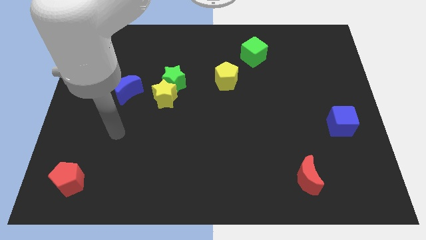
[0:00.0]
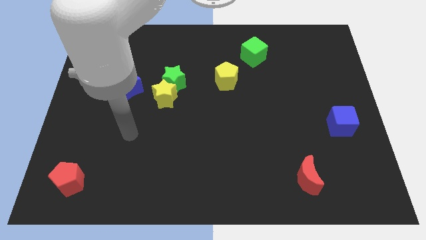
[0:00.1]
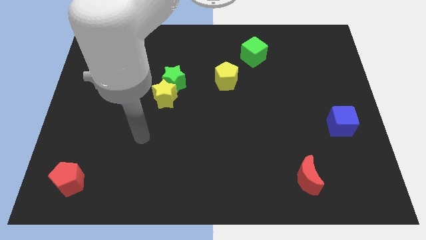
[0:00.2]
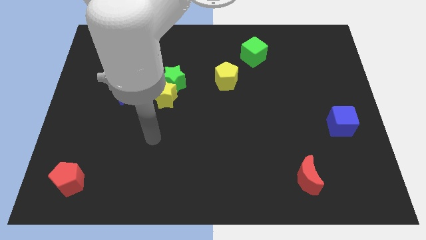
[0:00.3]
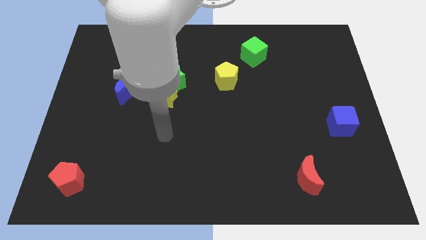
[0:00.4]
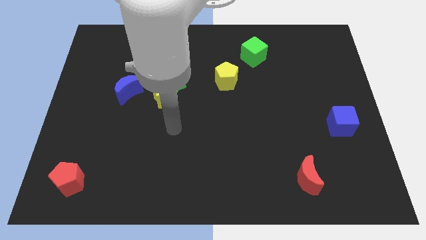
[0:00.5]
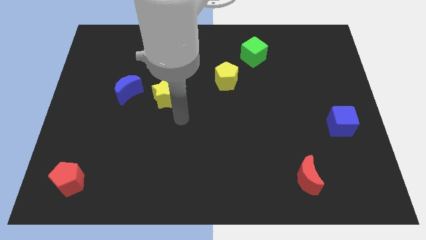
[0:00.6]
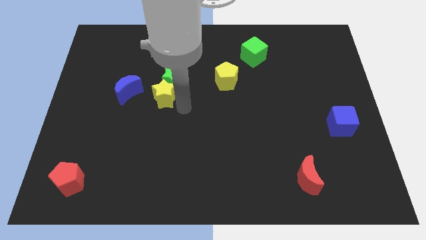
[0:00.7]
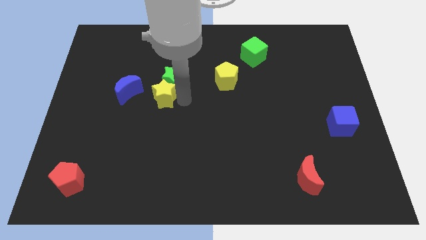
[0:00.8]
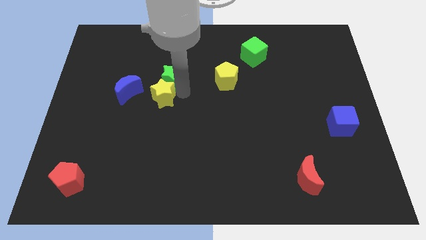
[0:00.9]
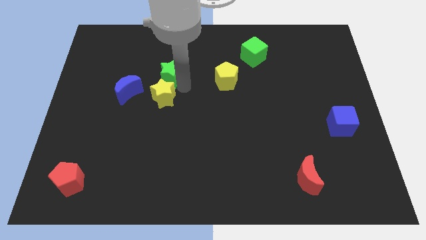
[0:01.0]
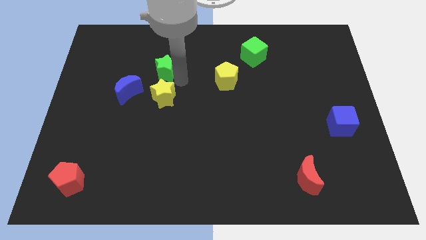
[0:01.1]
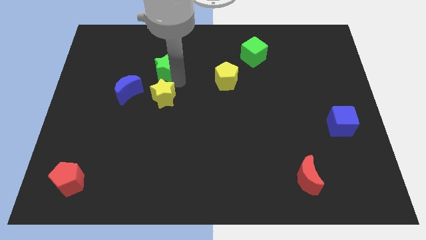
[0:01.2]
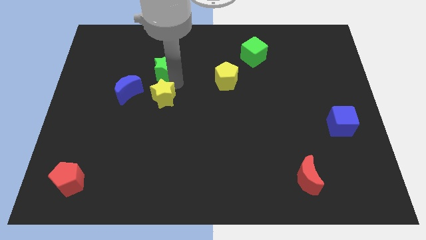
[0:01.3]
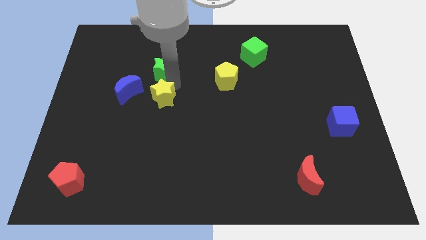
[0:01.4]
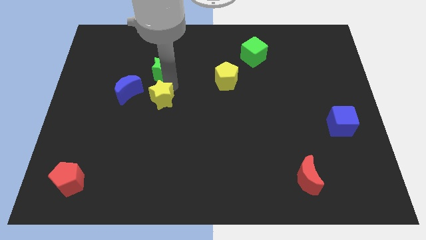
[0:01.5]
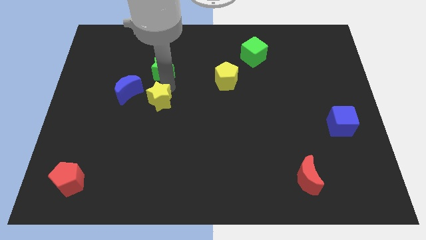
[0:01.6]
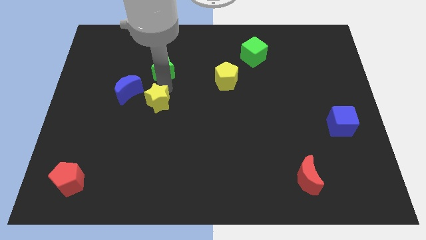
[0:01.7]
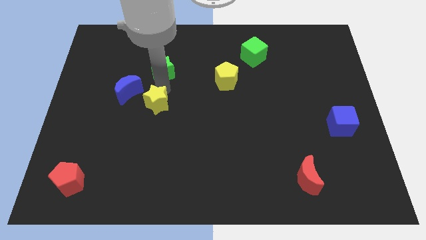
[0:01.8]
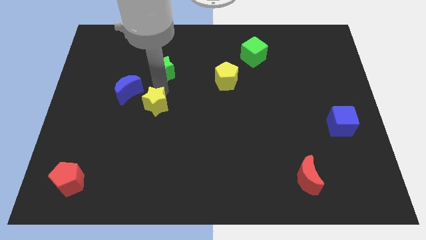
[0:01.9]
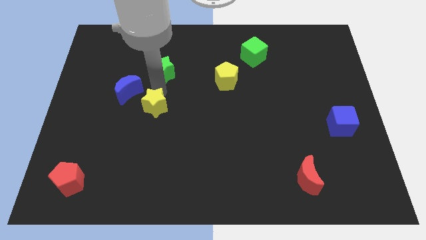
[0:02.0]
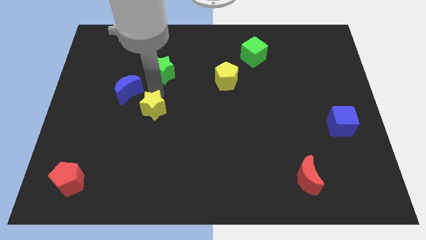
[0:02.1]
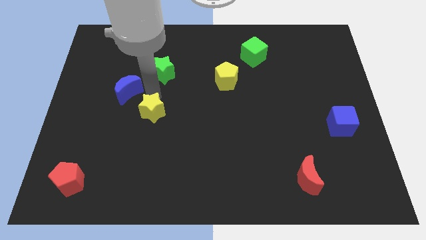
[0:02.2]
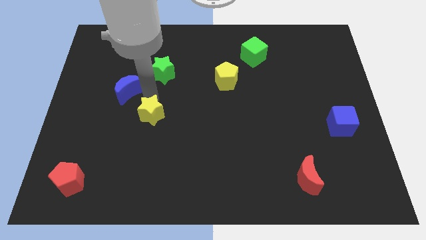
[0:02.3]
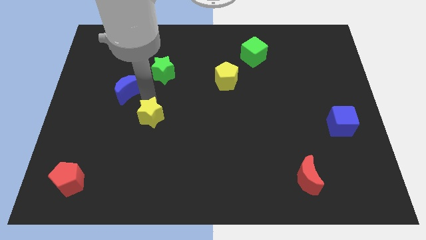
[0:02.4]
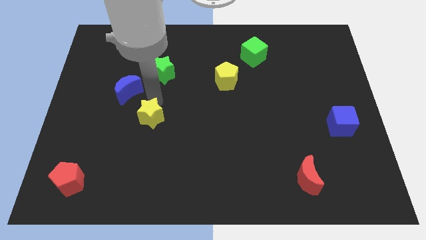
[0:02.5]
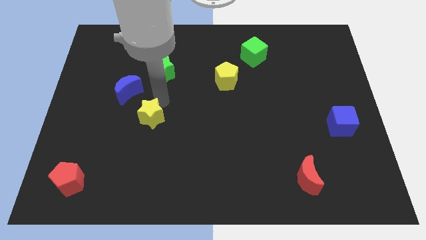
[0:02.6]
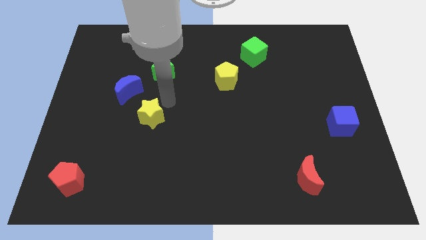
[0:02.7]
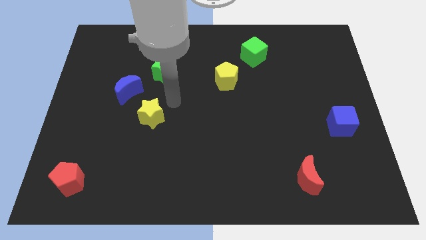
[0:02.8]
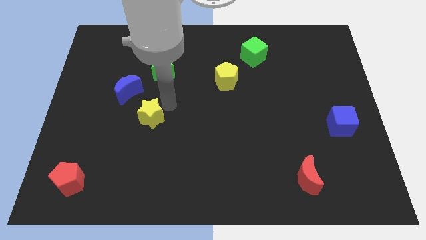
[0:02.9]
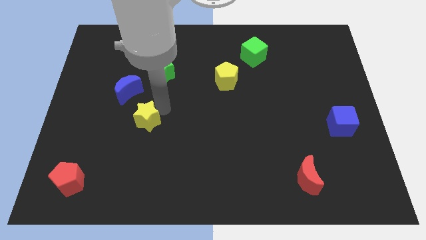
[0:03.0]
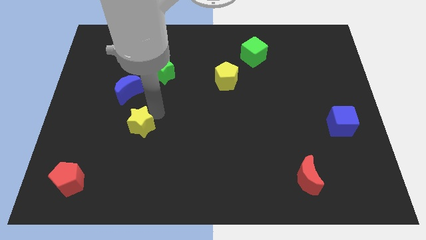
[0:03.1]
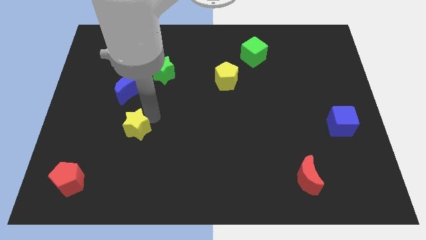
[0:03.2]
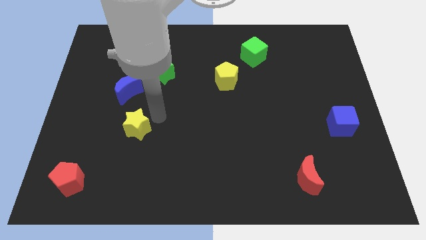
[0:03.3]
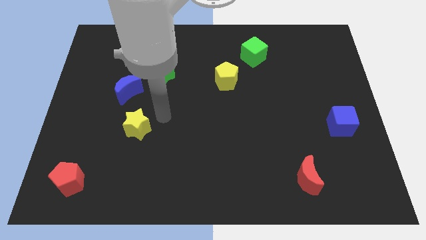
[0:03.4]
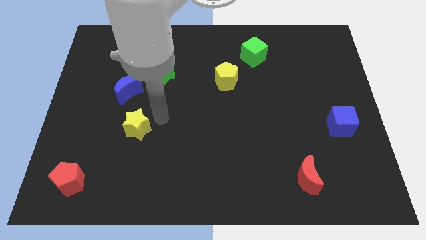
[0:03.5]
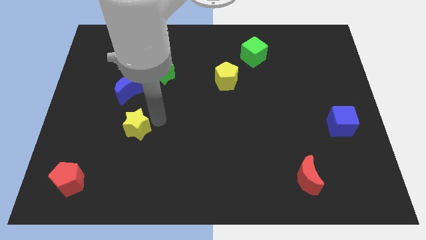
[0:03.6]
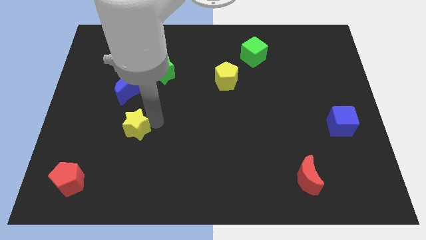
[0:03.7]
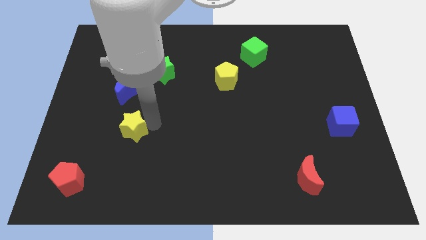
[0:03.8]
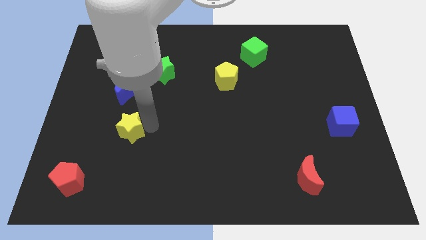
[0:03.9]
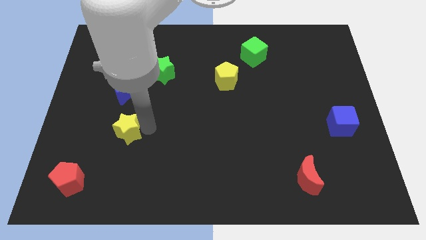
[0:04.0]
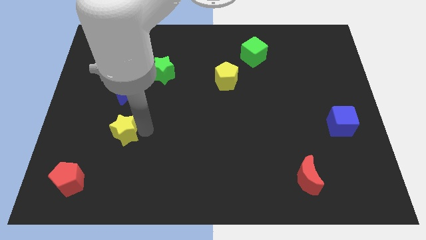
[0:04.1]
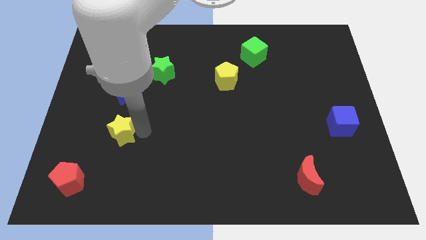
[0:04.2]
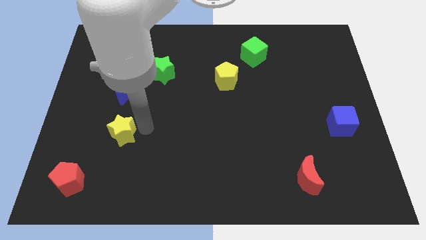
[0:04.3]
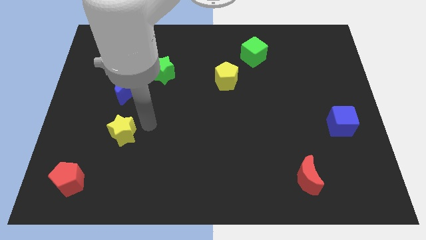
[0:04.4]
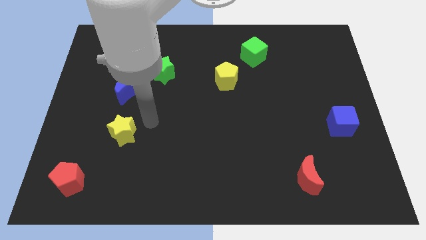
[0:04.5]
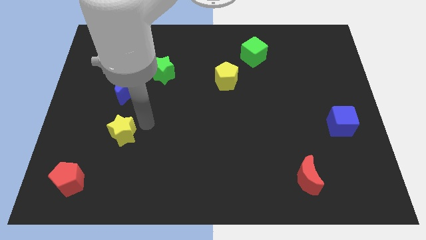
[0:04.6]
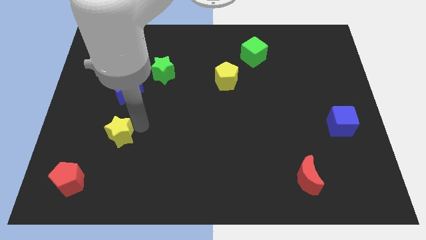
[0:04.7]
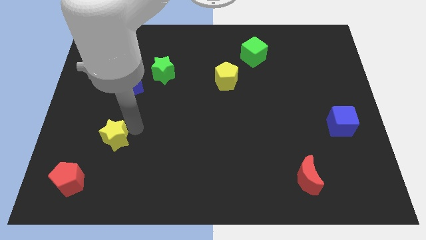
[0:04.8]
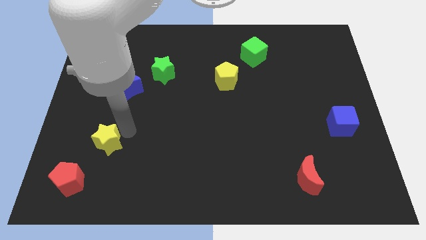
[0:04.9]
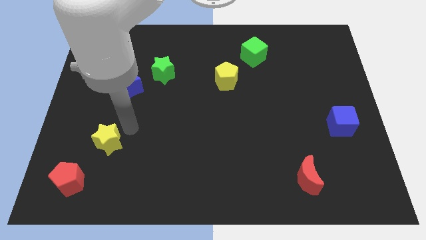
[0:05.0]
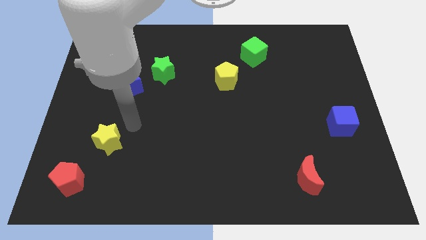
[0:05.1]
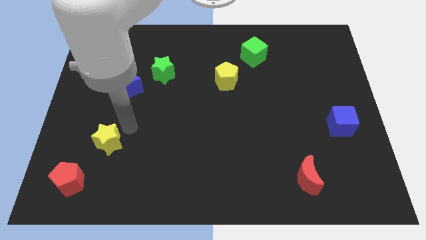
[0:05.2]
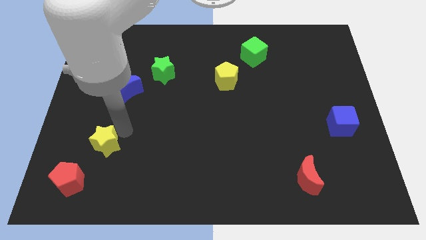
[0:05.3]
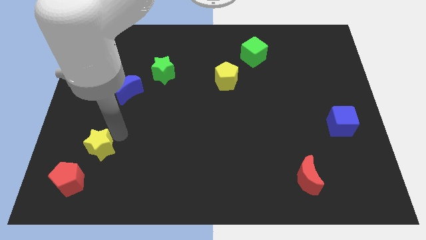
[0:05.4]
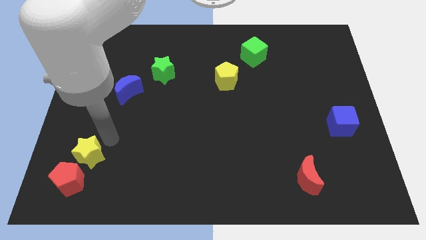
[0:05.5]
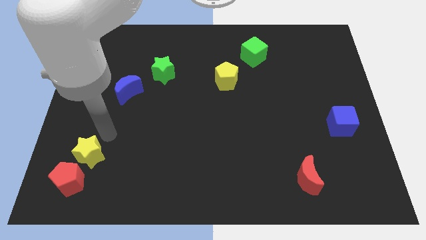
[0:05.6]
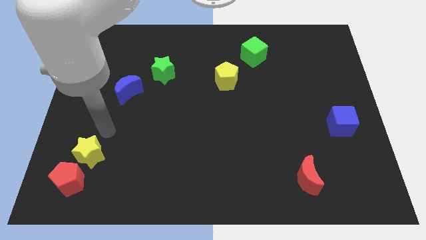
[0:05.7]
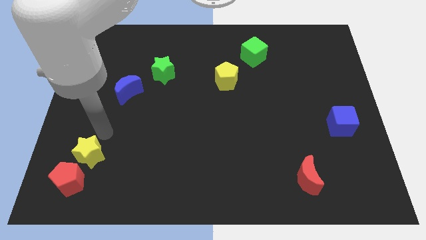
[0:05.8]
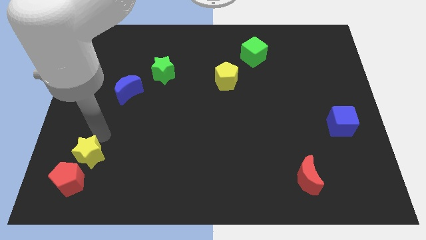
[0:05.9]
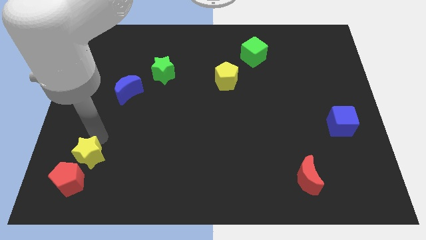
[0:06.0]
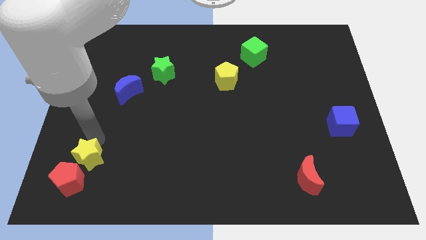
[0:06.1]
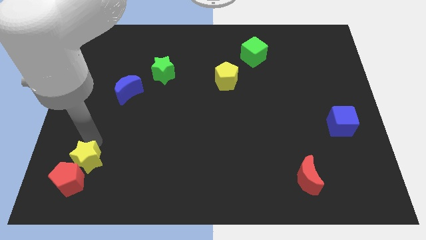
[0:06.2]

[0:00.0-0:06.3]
move the yellow star next to the red pentagon
